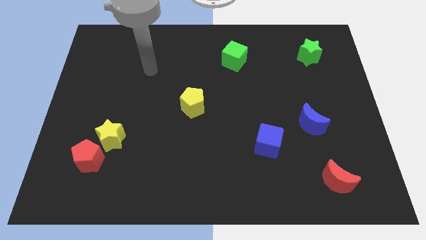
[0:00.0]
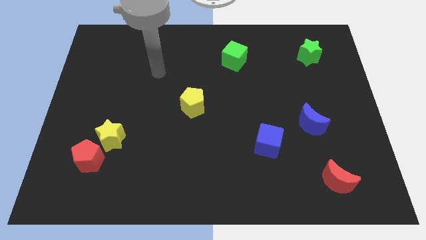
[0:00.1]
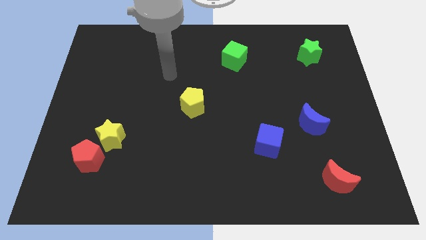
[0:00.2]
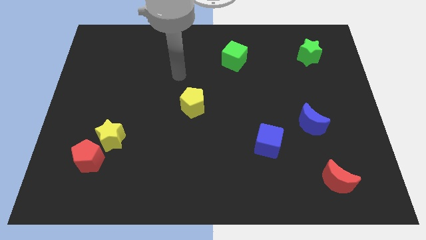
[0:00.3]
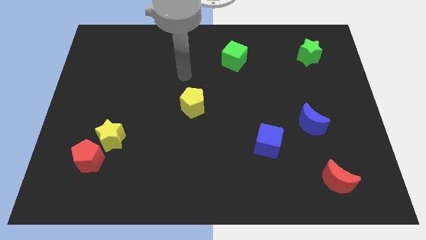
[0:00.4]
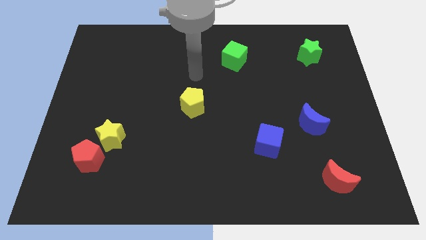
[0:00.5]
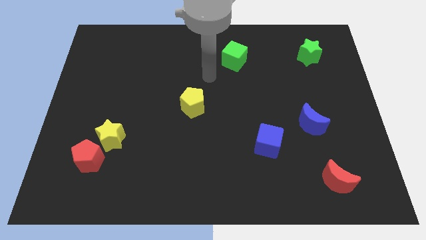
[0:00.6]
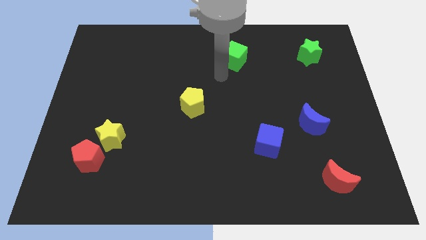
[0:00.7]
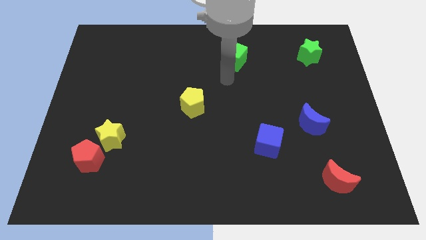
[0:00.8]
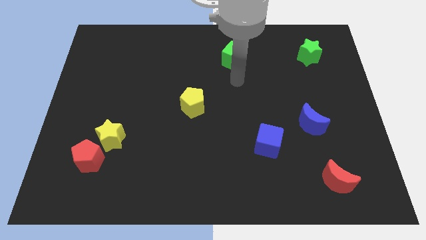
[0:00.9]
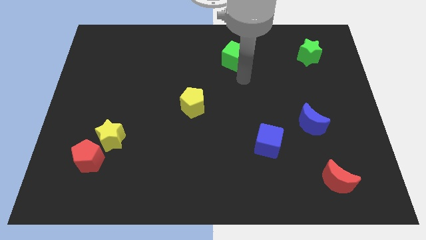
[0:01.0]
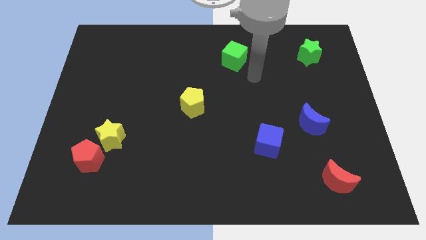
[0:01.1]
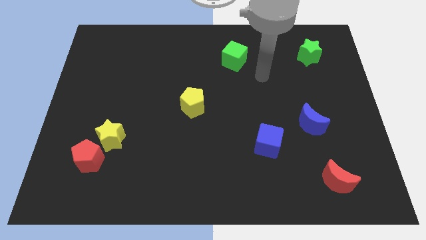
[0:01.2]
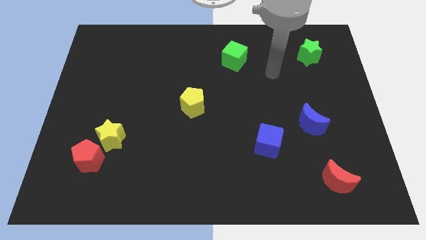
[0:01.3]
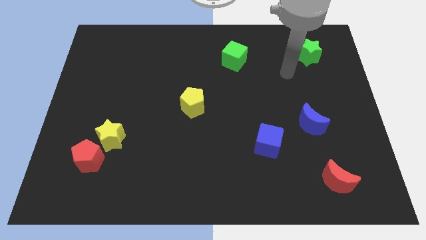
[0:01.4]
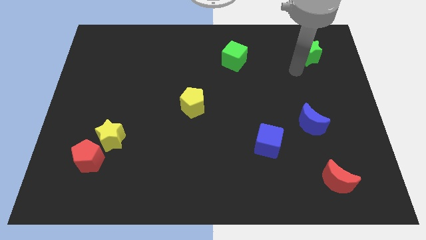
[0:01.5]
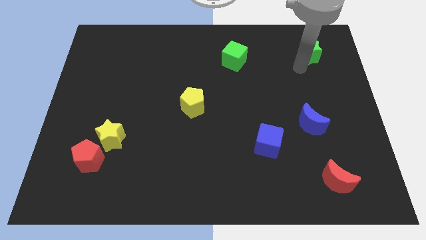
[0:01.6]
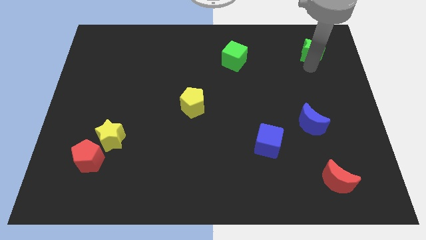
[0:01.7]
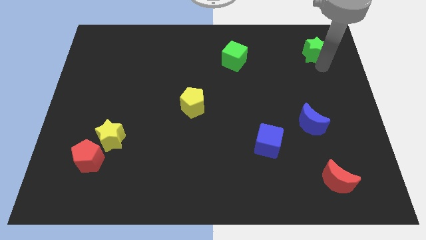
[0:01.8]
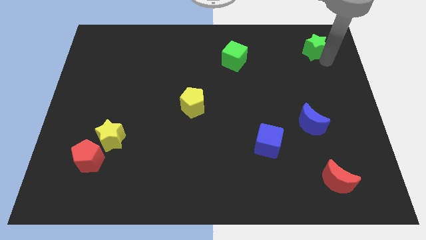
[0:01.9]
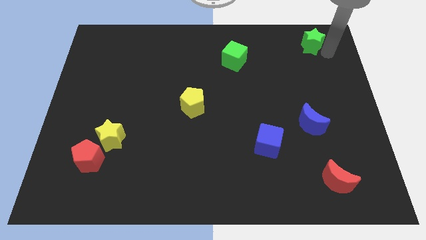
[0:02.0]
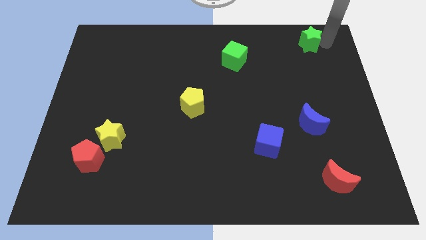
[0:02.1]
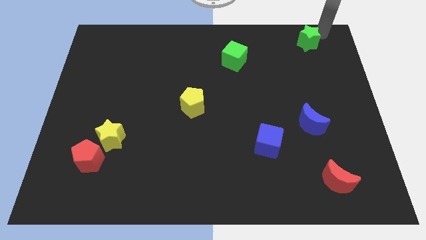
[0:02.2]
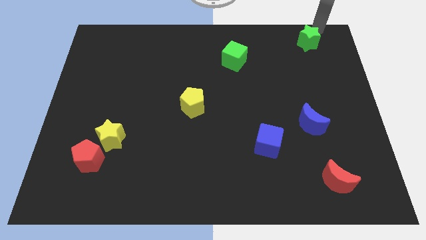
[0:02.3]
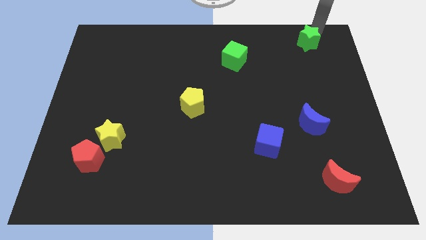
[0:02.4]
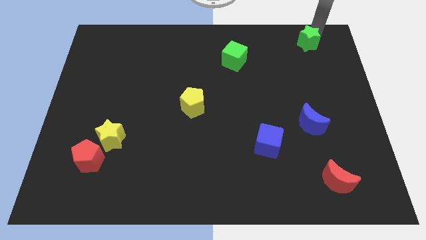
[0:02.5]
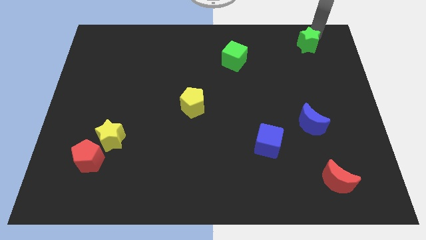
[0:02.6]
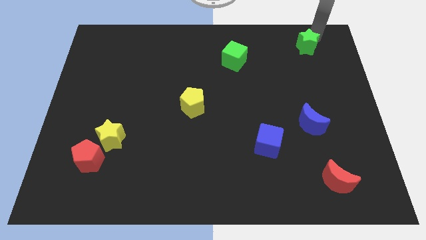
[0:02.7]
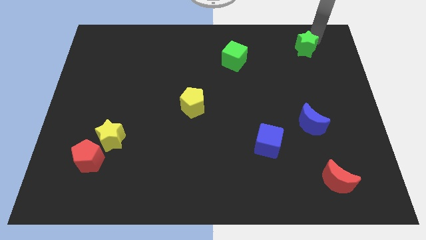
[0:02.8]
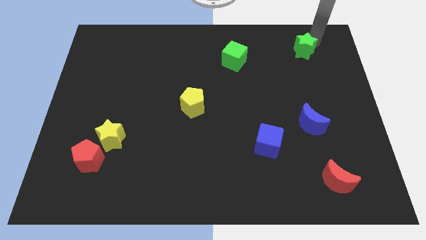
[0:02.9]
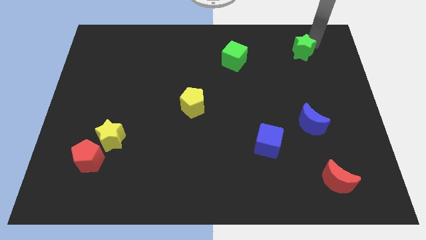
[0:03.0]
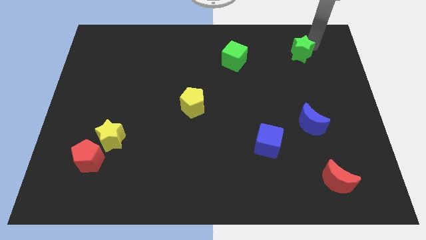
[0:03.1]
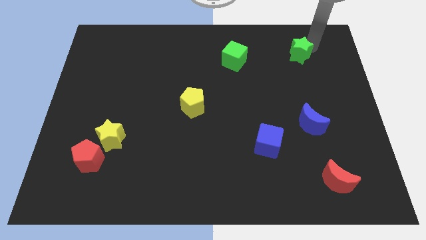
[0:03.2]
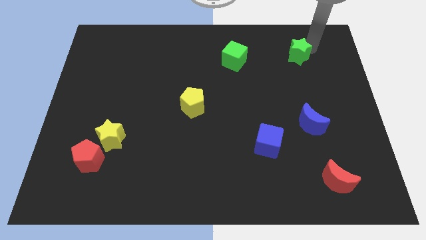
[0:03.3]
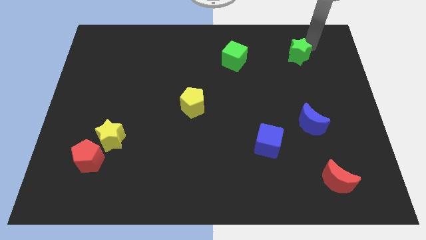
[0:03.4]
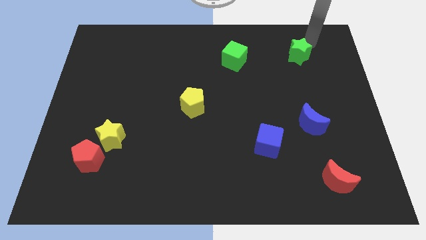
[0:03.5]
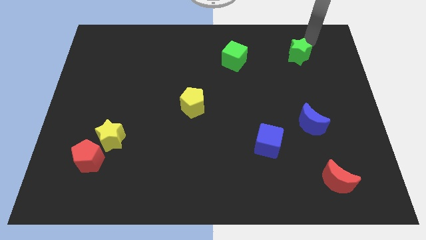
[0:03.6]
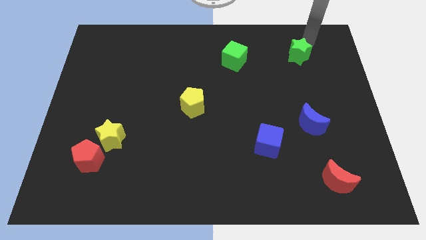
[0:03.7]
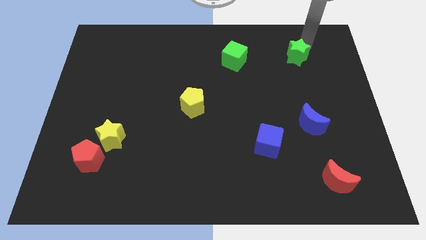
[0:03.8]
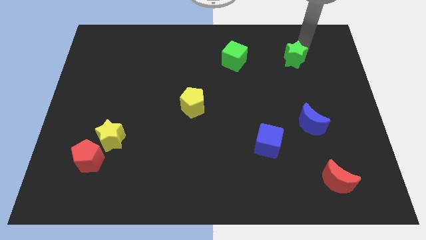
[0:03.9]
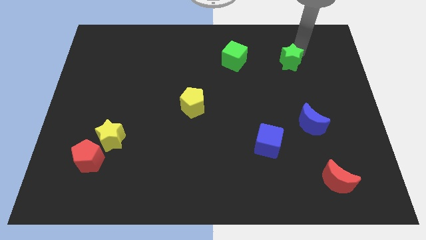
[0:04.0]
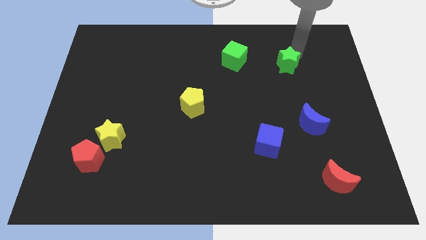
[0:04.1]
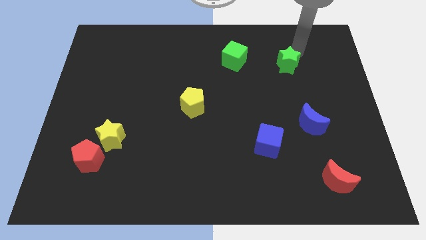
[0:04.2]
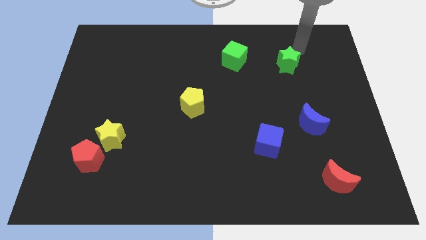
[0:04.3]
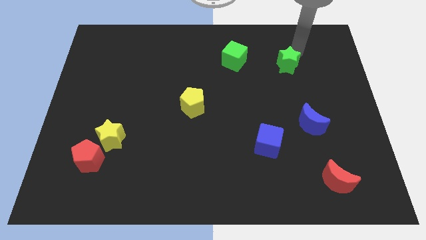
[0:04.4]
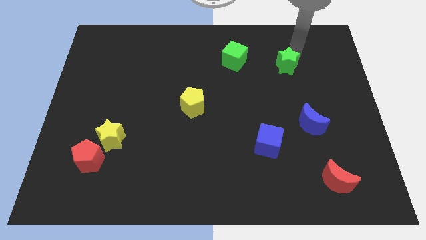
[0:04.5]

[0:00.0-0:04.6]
slightly move the green star down and then to the left

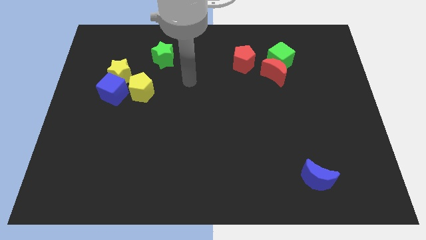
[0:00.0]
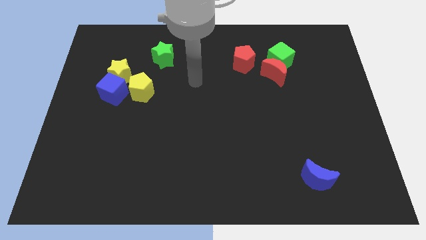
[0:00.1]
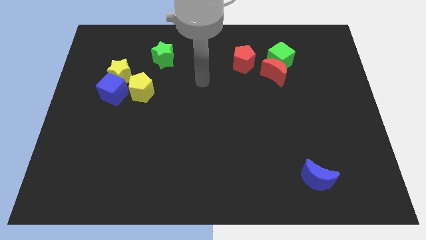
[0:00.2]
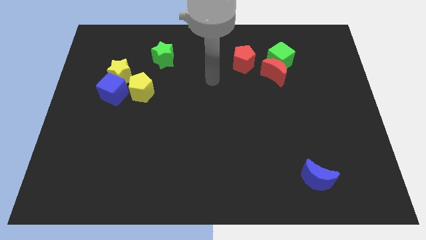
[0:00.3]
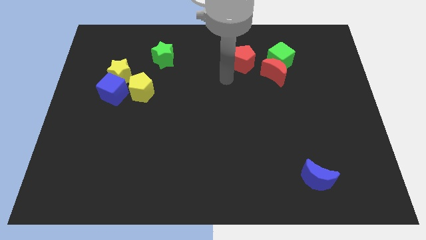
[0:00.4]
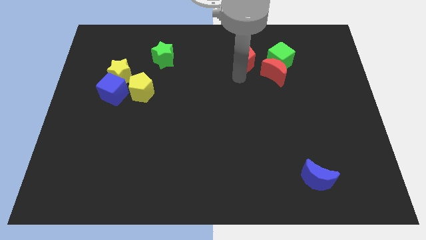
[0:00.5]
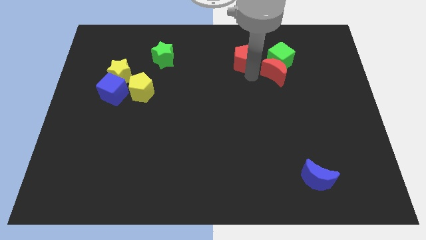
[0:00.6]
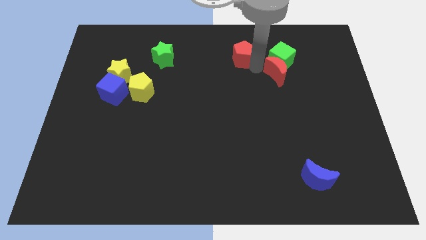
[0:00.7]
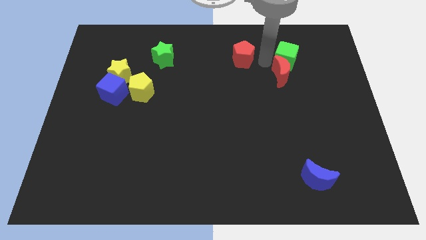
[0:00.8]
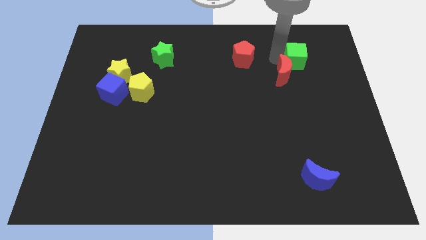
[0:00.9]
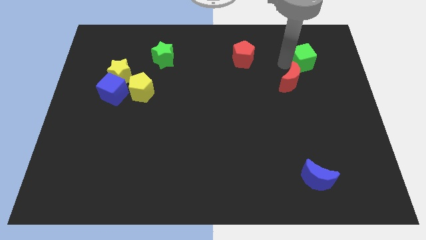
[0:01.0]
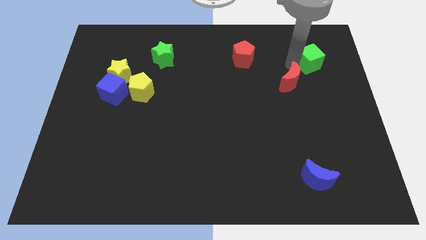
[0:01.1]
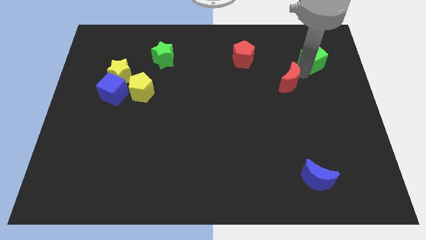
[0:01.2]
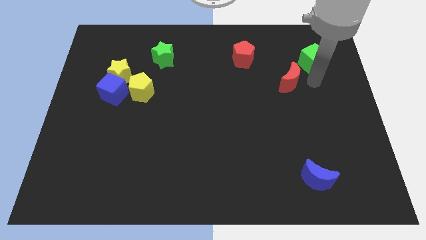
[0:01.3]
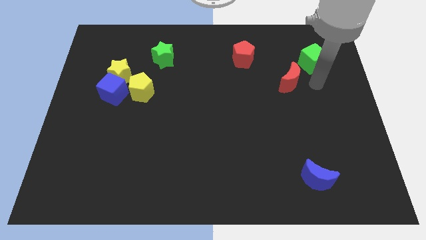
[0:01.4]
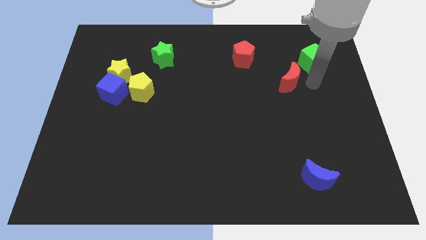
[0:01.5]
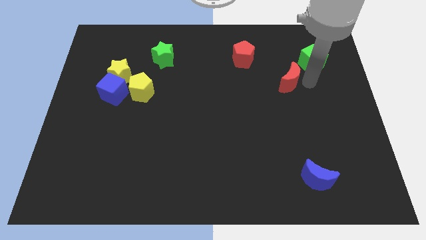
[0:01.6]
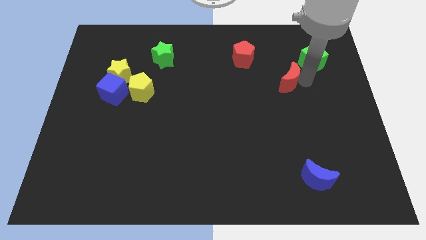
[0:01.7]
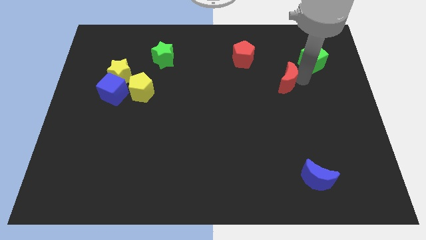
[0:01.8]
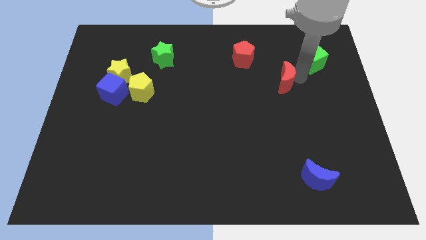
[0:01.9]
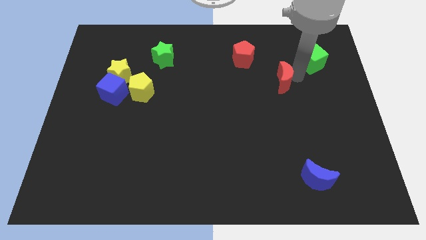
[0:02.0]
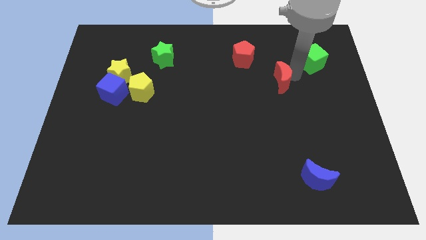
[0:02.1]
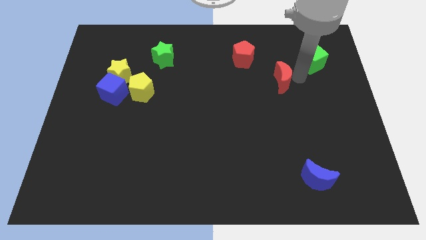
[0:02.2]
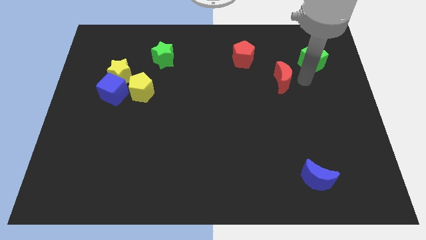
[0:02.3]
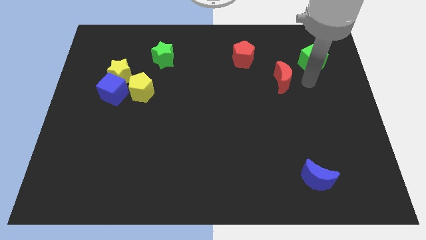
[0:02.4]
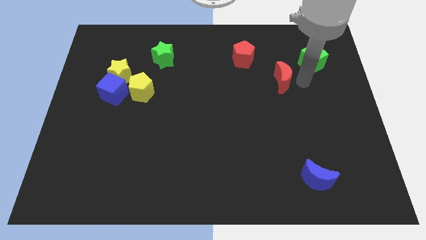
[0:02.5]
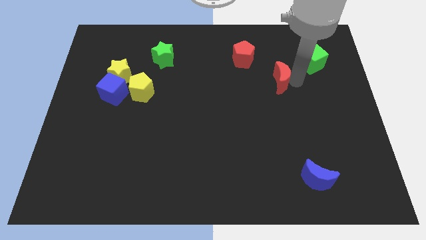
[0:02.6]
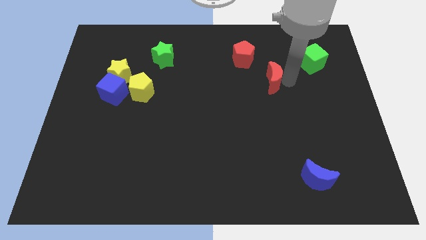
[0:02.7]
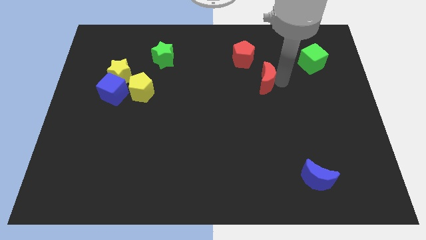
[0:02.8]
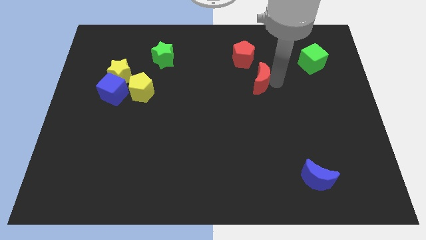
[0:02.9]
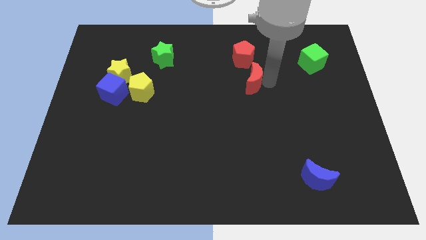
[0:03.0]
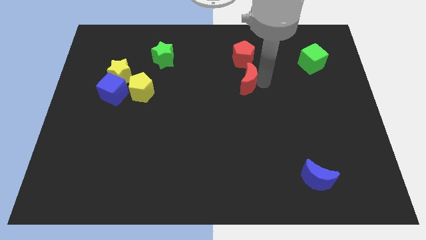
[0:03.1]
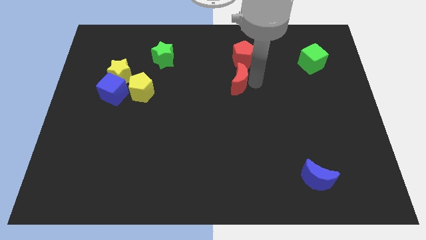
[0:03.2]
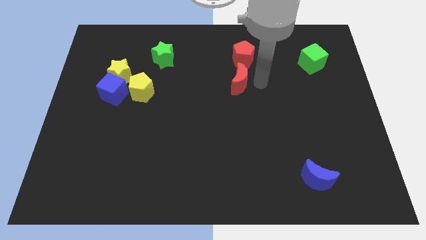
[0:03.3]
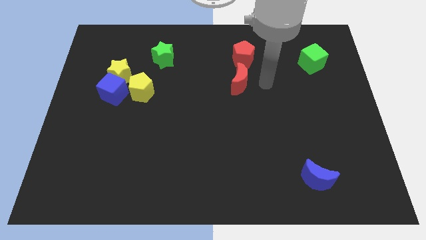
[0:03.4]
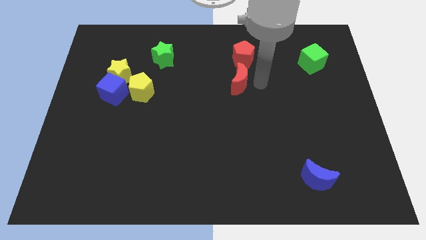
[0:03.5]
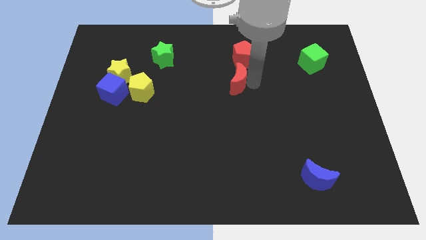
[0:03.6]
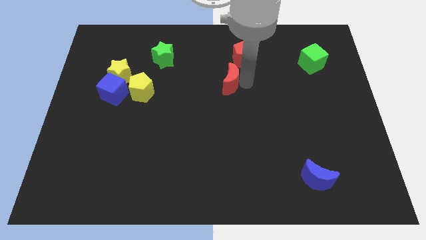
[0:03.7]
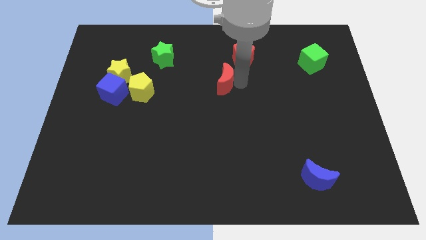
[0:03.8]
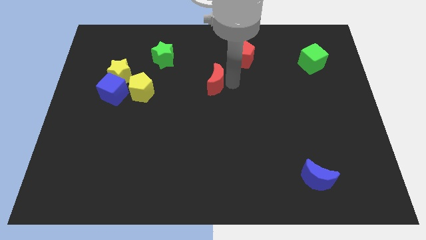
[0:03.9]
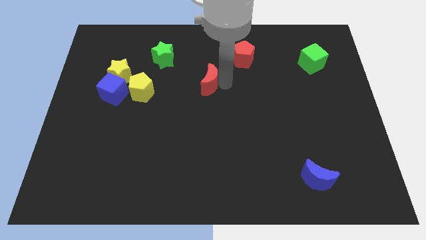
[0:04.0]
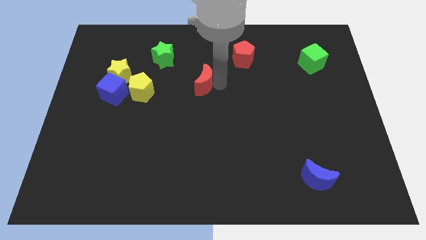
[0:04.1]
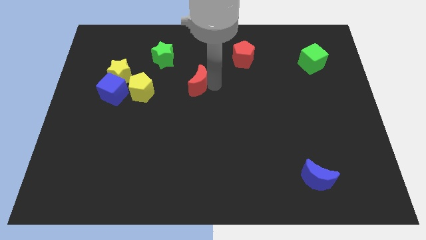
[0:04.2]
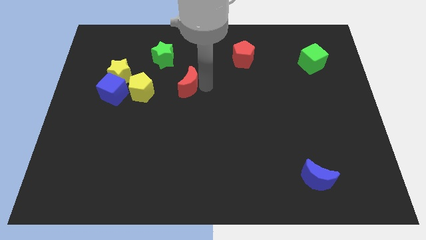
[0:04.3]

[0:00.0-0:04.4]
slide the red moon to the left
